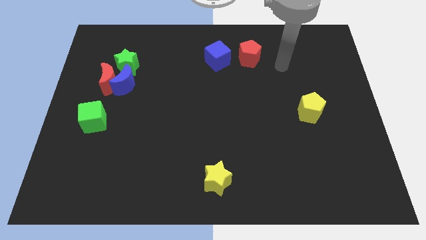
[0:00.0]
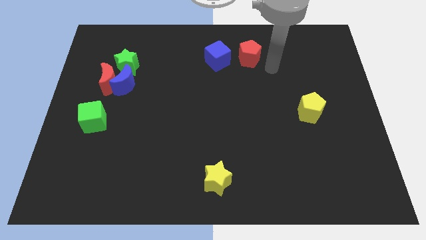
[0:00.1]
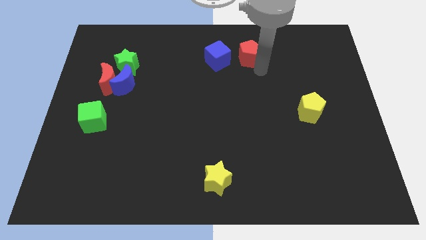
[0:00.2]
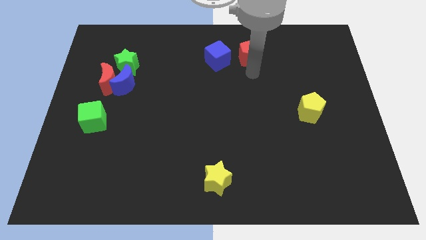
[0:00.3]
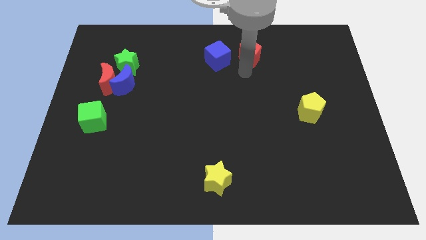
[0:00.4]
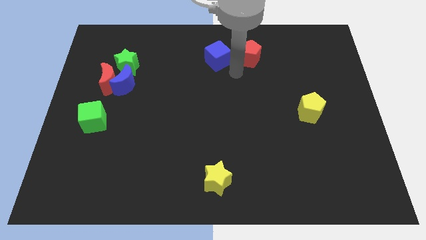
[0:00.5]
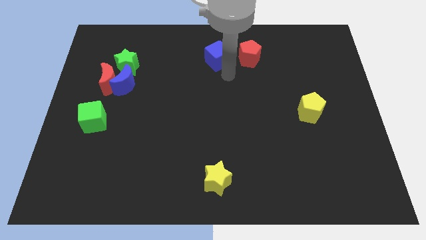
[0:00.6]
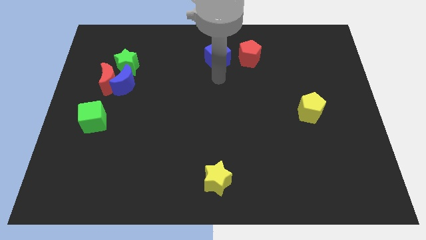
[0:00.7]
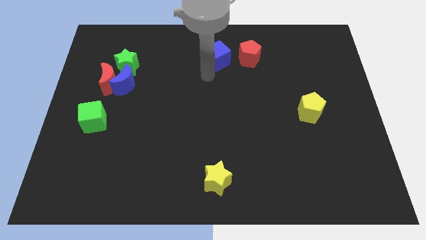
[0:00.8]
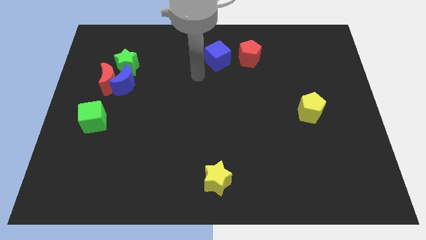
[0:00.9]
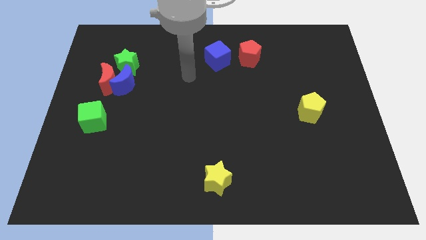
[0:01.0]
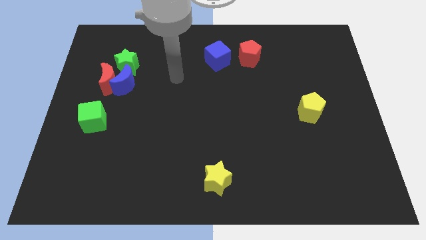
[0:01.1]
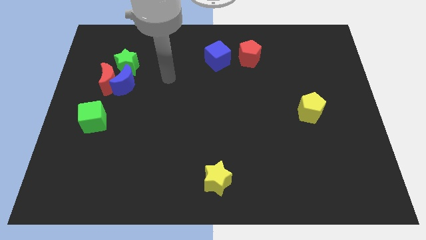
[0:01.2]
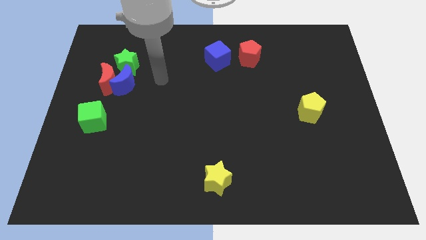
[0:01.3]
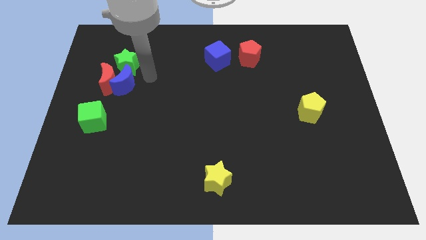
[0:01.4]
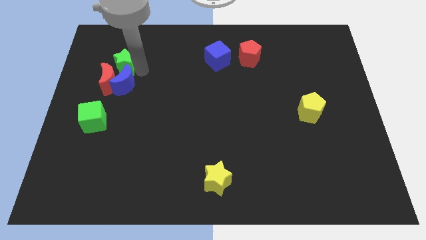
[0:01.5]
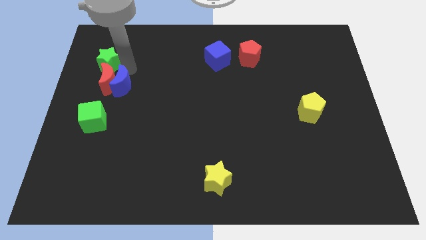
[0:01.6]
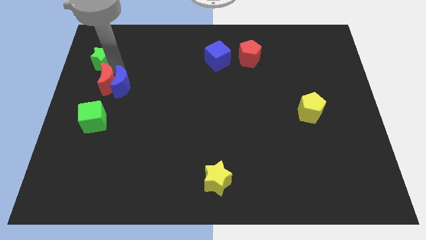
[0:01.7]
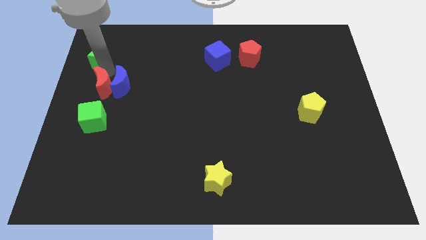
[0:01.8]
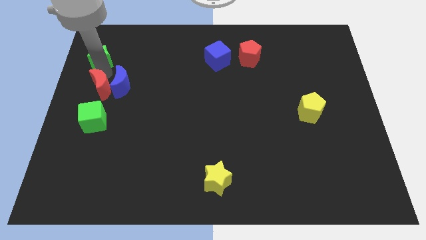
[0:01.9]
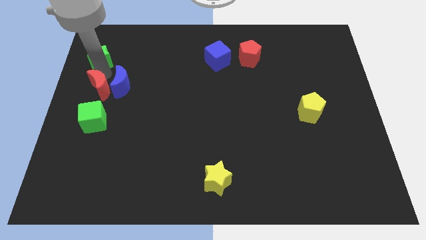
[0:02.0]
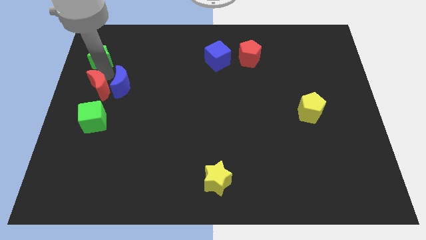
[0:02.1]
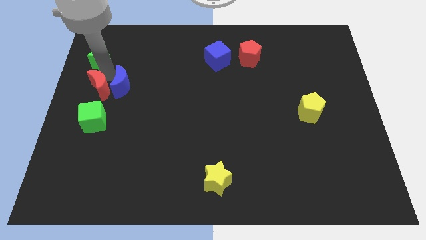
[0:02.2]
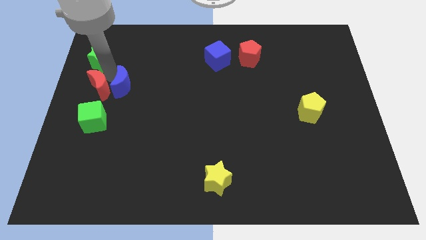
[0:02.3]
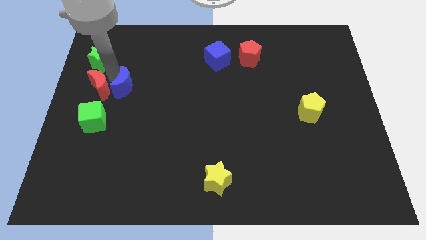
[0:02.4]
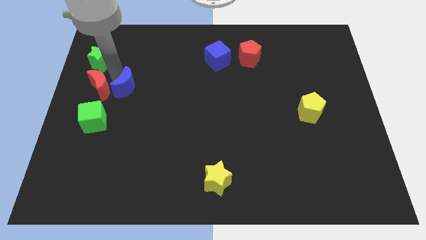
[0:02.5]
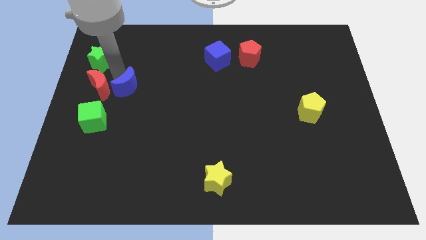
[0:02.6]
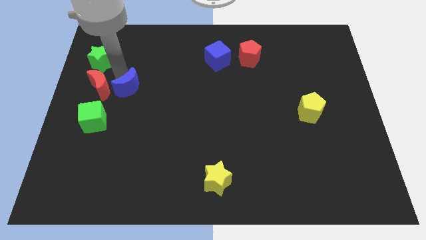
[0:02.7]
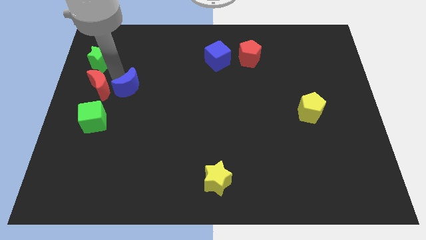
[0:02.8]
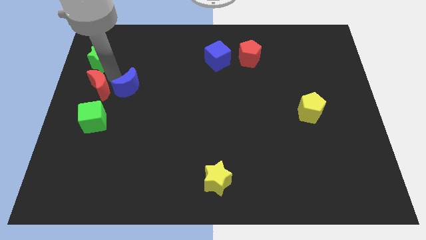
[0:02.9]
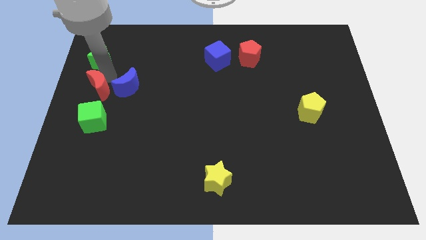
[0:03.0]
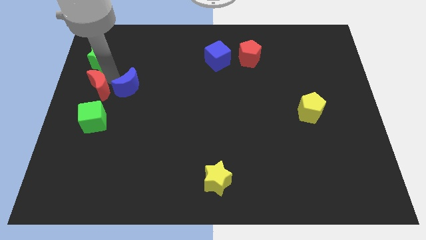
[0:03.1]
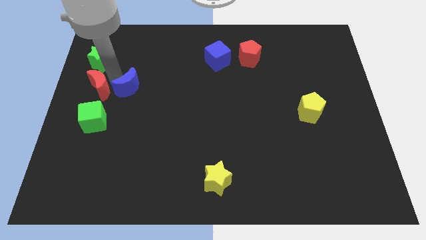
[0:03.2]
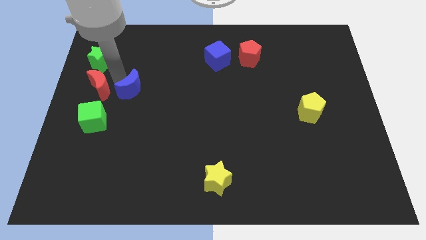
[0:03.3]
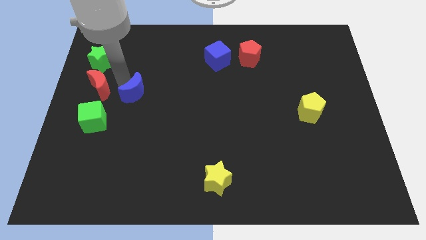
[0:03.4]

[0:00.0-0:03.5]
move the blue moon away from the red moon and green star

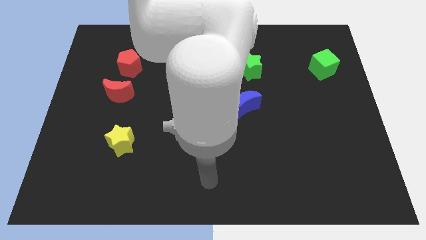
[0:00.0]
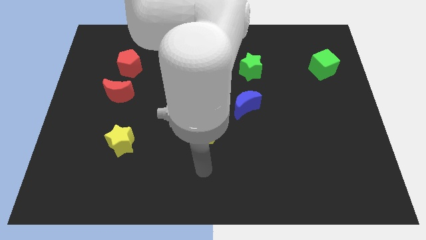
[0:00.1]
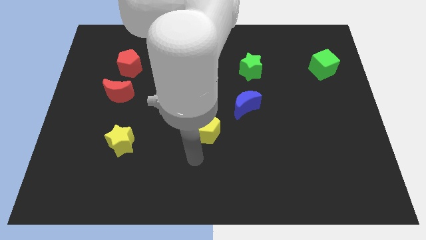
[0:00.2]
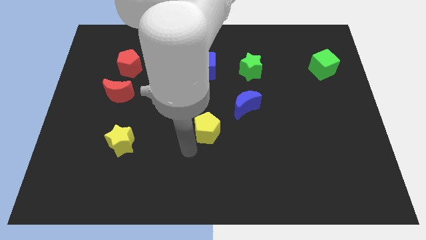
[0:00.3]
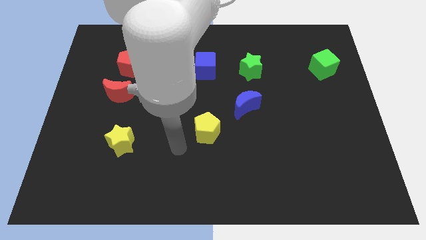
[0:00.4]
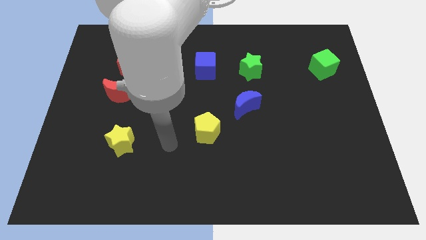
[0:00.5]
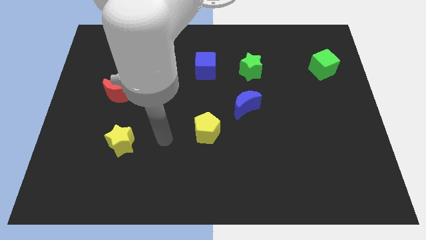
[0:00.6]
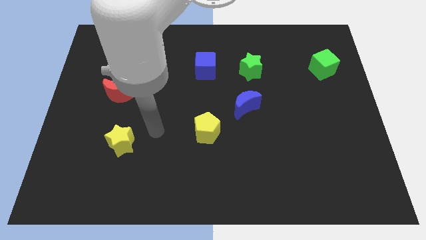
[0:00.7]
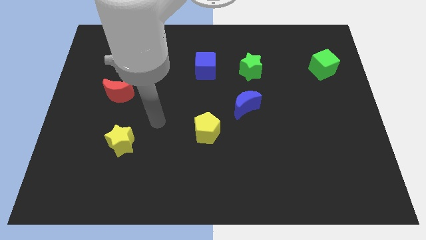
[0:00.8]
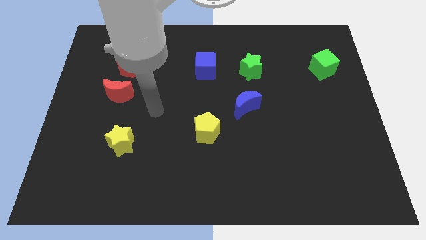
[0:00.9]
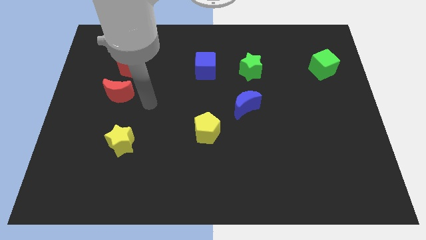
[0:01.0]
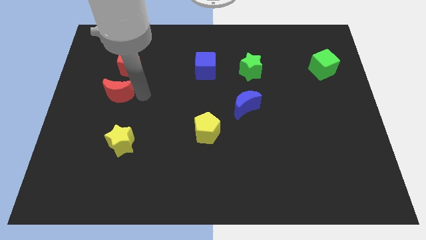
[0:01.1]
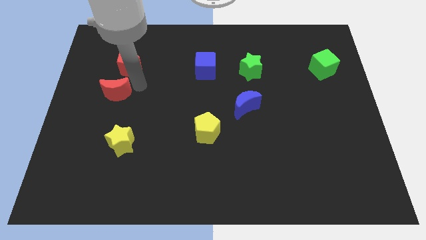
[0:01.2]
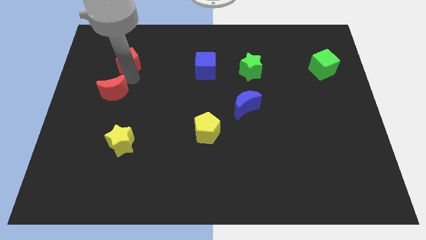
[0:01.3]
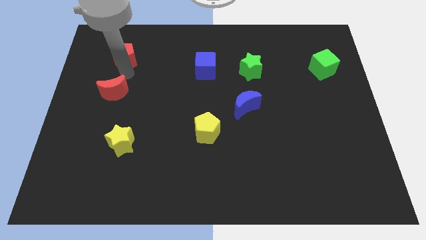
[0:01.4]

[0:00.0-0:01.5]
move the red moon away from the red pentagon

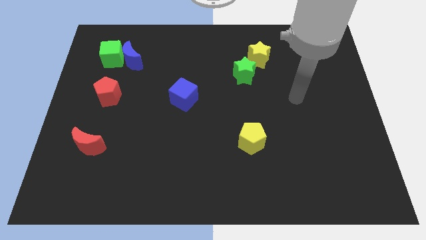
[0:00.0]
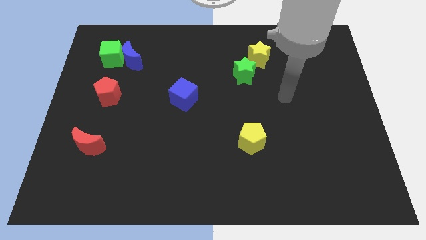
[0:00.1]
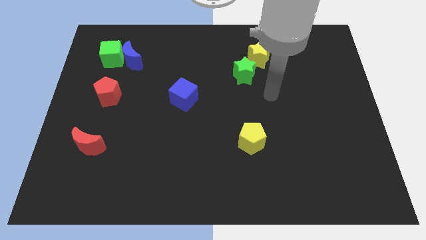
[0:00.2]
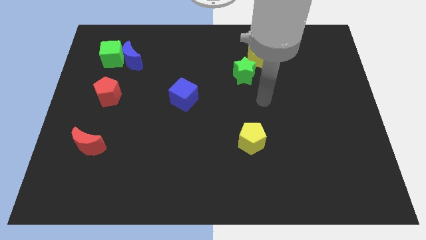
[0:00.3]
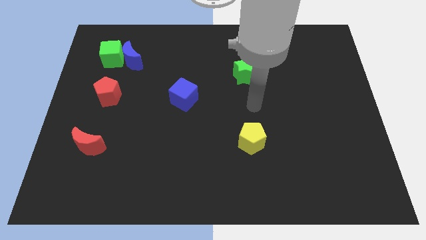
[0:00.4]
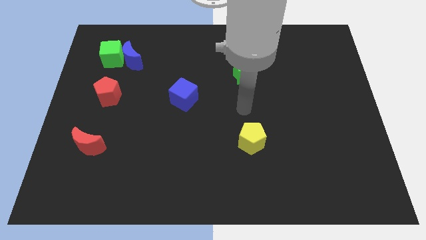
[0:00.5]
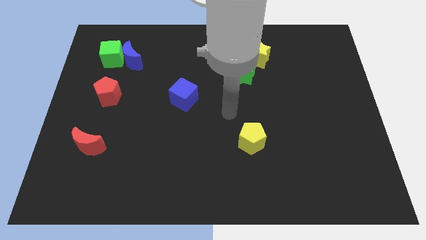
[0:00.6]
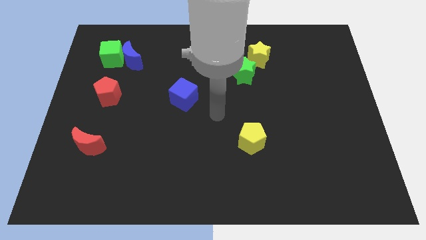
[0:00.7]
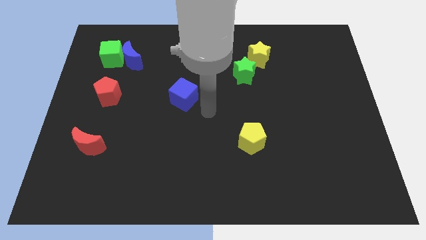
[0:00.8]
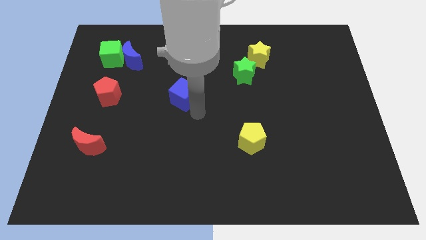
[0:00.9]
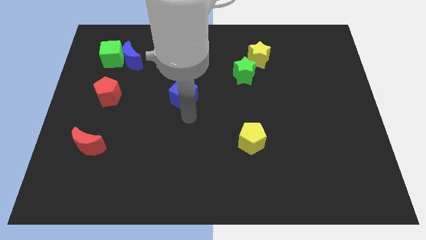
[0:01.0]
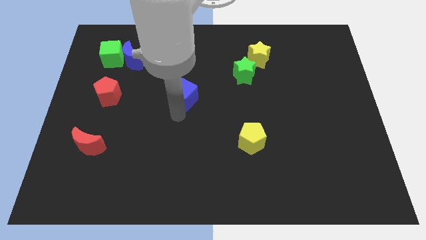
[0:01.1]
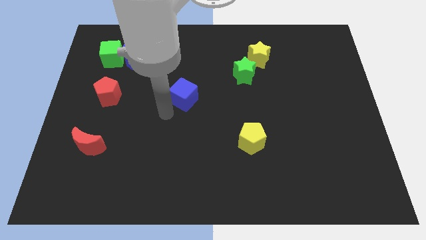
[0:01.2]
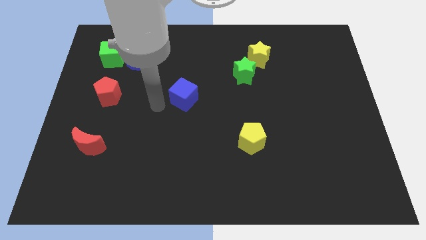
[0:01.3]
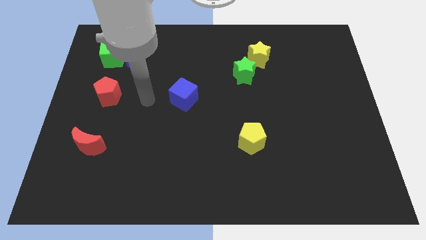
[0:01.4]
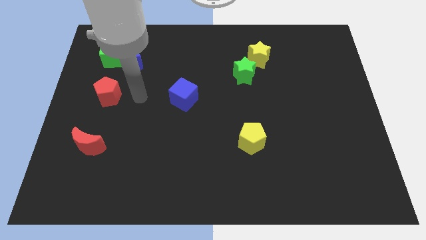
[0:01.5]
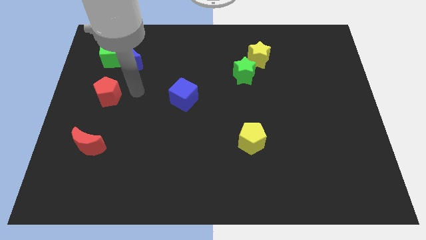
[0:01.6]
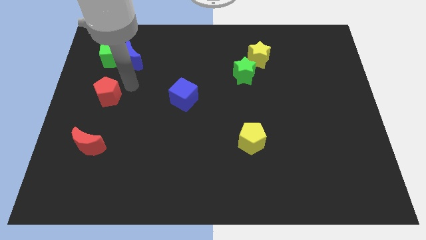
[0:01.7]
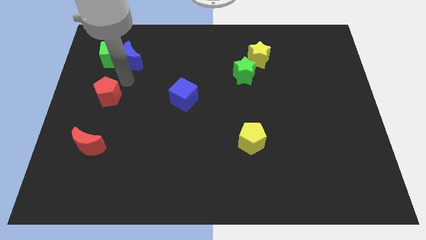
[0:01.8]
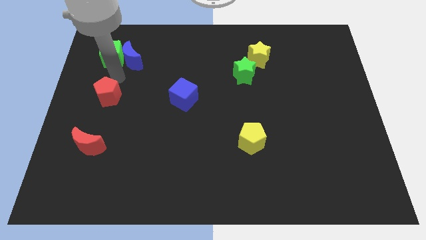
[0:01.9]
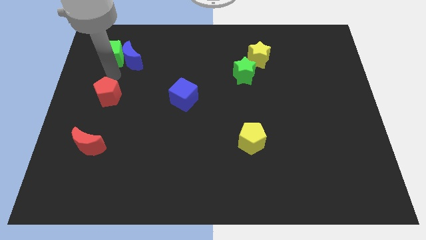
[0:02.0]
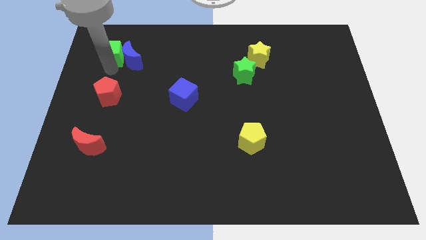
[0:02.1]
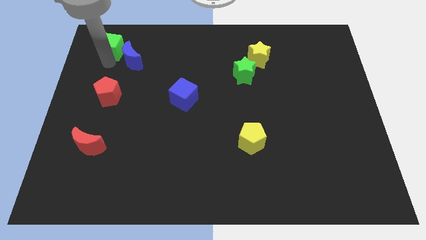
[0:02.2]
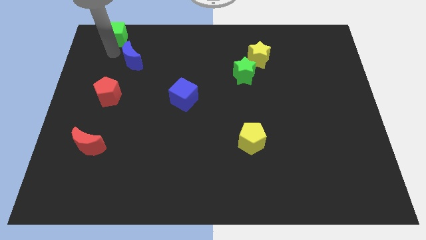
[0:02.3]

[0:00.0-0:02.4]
separate the blue moon from the green cube

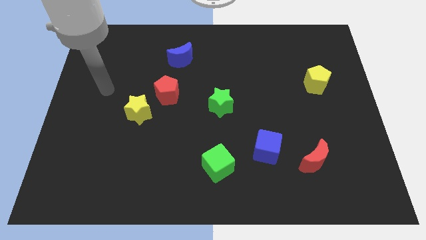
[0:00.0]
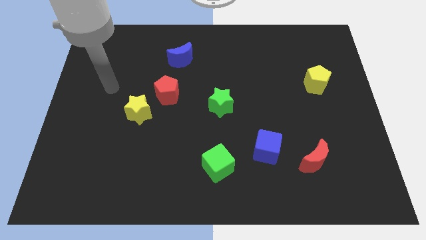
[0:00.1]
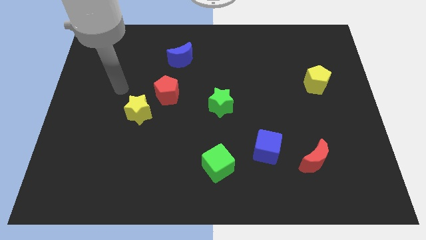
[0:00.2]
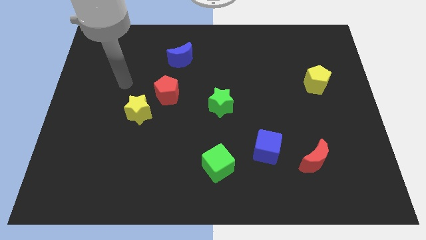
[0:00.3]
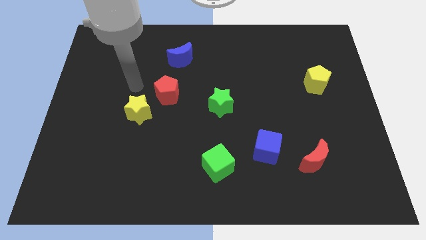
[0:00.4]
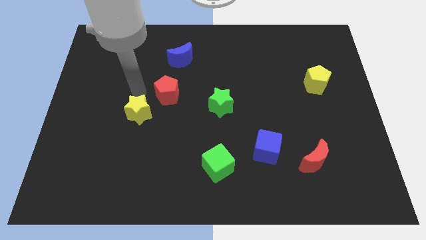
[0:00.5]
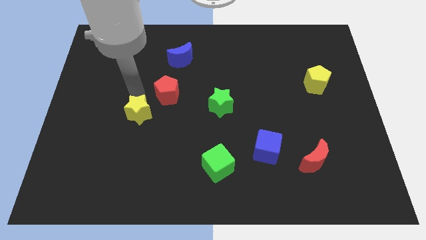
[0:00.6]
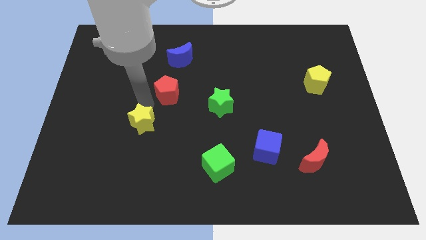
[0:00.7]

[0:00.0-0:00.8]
separate the red pentagon from the yellow star

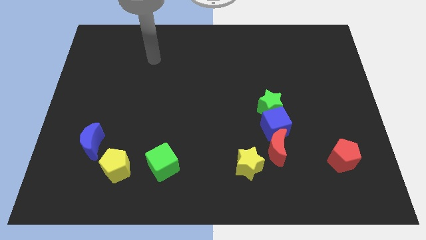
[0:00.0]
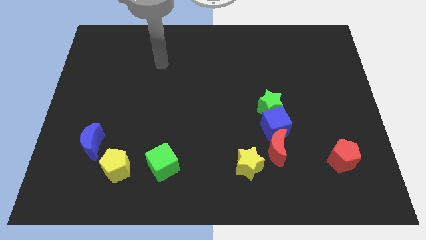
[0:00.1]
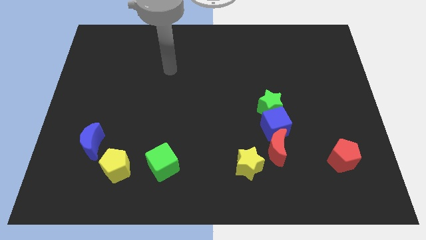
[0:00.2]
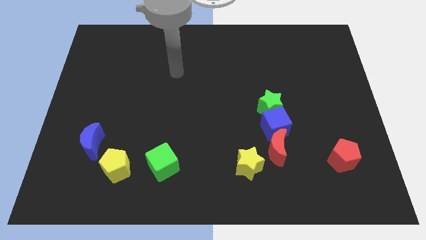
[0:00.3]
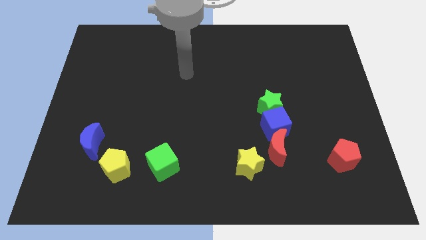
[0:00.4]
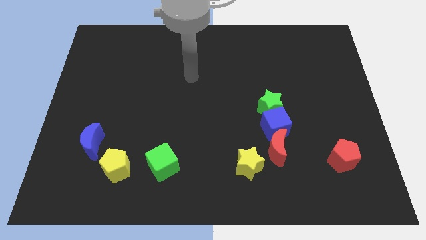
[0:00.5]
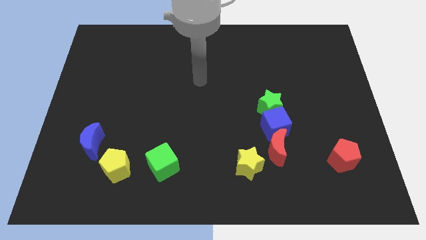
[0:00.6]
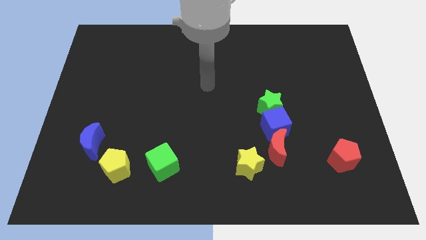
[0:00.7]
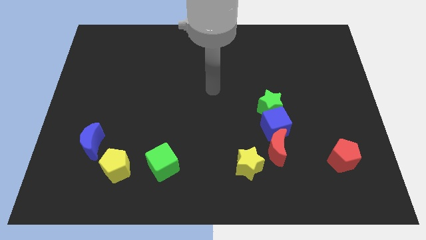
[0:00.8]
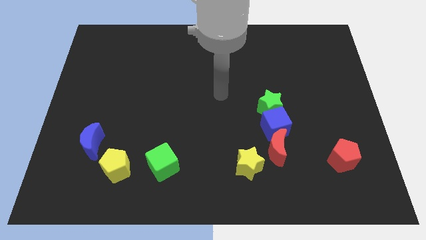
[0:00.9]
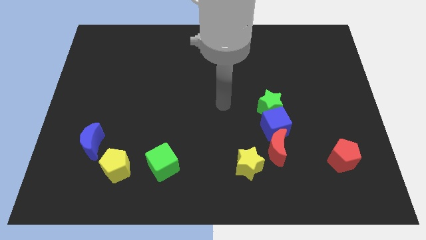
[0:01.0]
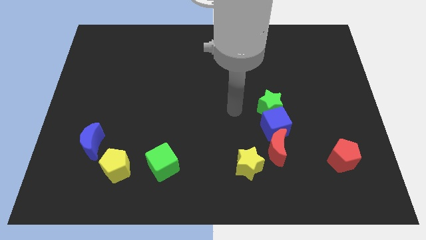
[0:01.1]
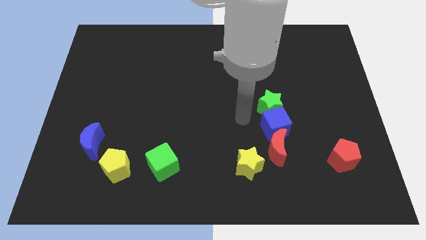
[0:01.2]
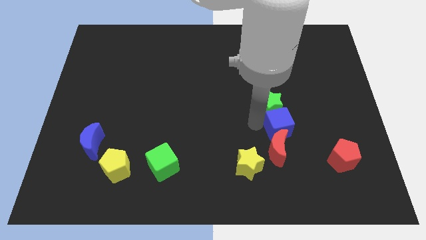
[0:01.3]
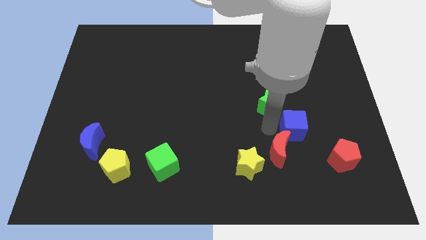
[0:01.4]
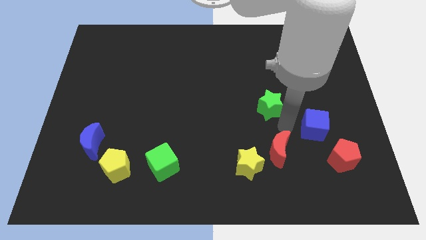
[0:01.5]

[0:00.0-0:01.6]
separate the green star from the blue cube
